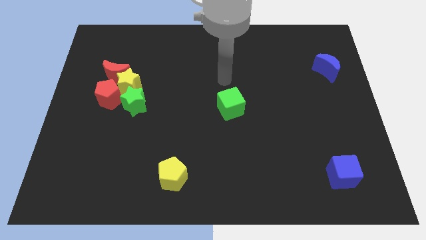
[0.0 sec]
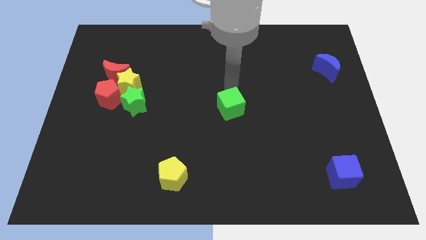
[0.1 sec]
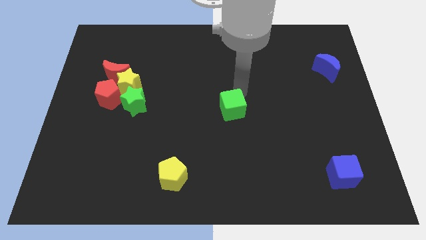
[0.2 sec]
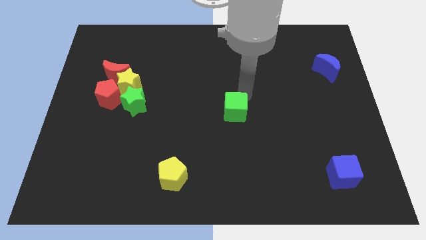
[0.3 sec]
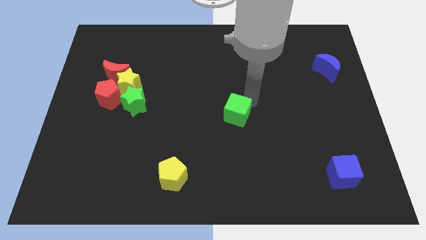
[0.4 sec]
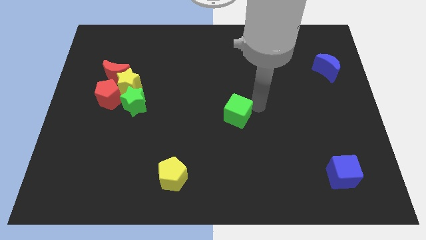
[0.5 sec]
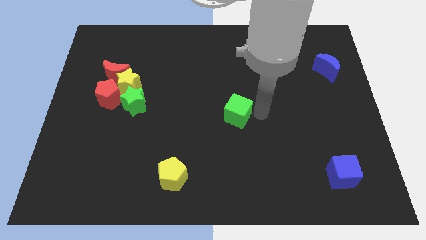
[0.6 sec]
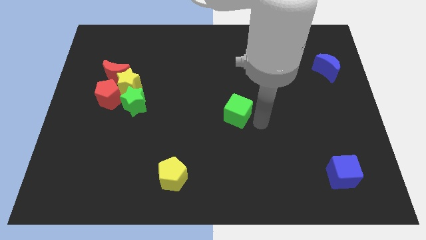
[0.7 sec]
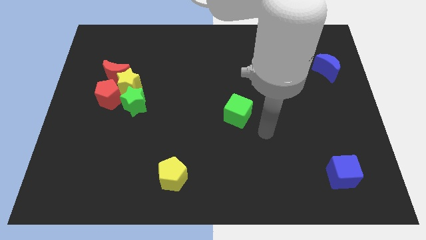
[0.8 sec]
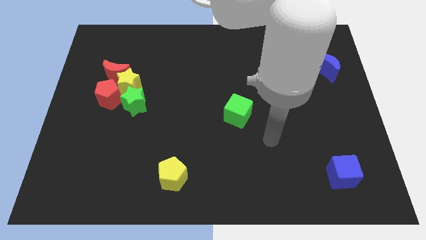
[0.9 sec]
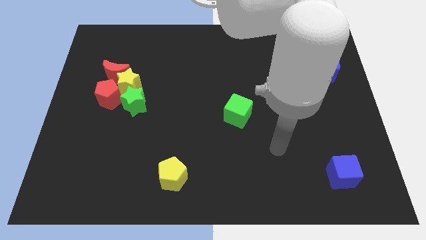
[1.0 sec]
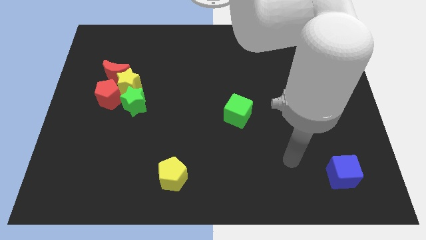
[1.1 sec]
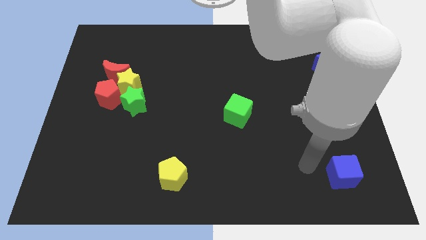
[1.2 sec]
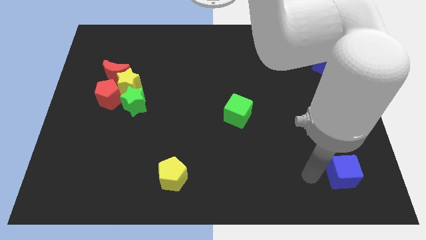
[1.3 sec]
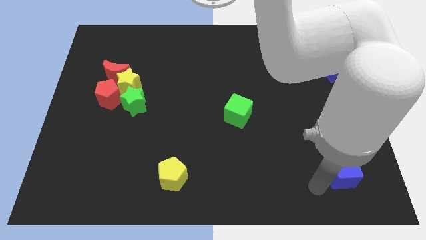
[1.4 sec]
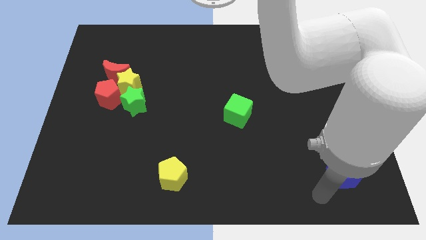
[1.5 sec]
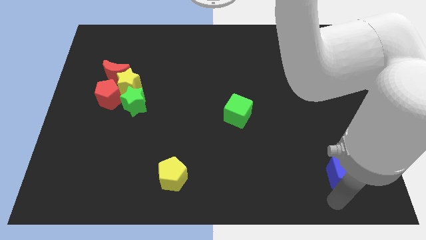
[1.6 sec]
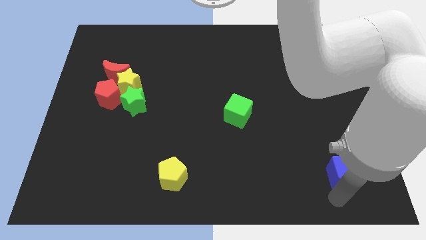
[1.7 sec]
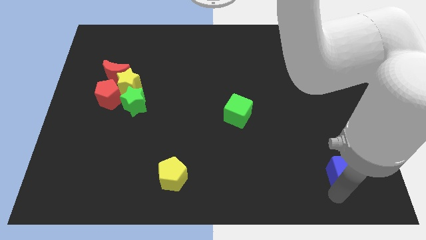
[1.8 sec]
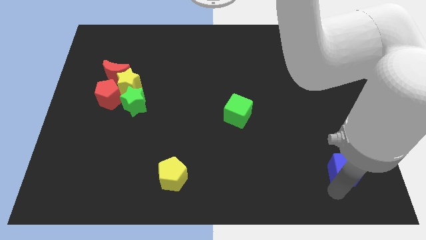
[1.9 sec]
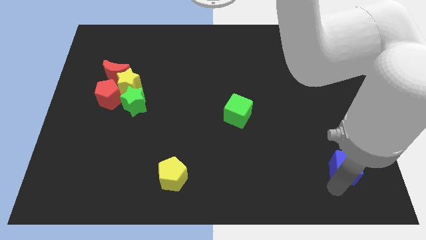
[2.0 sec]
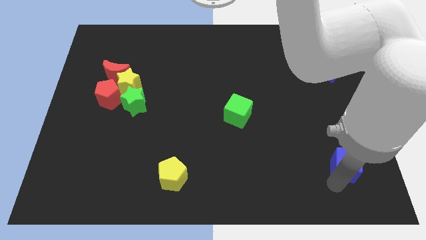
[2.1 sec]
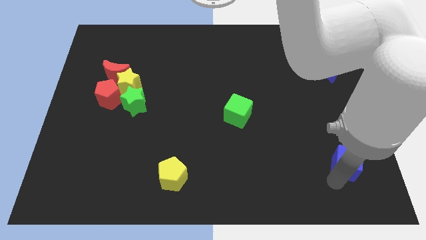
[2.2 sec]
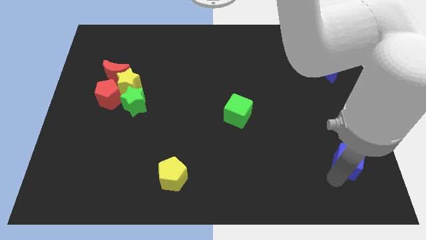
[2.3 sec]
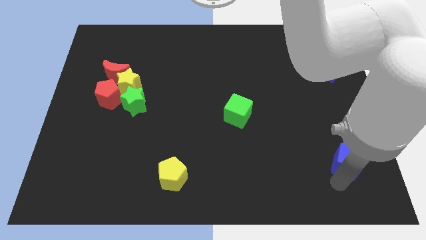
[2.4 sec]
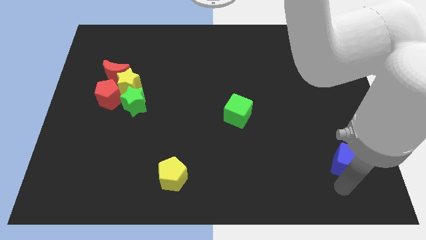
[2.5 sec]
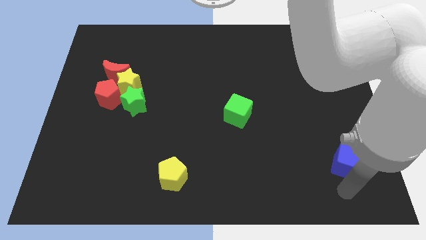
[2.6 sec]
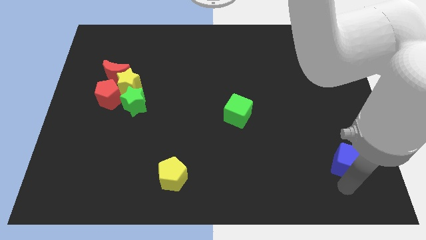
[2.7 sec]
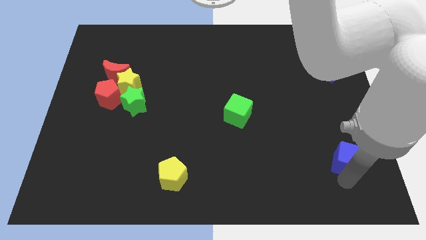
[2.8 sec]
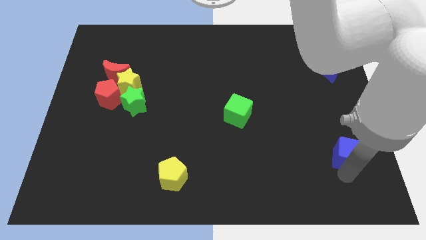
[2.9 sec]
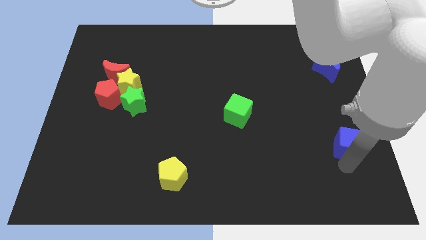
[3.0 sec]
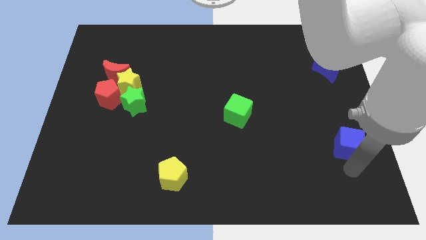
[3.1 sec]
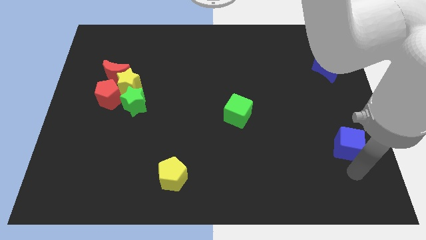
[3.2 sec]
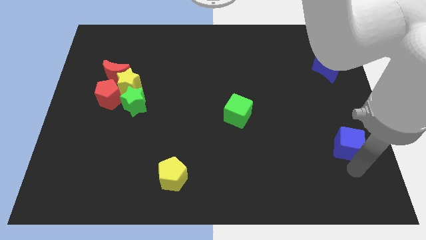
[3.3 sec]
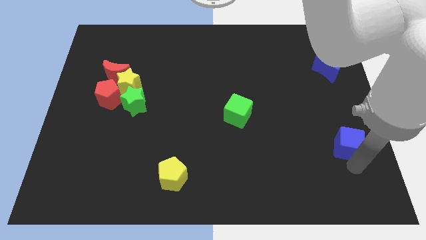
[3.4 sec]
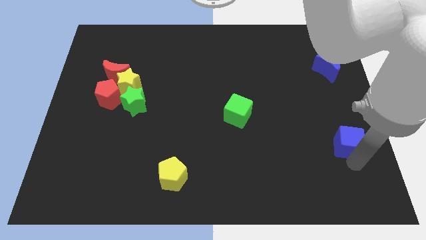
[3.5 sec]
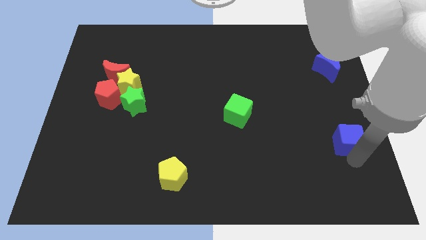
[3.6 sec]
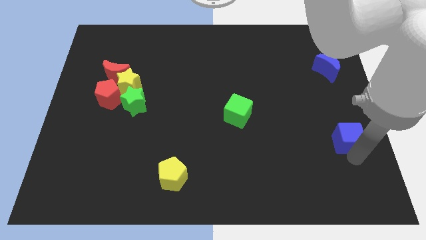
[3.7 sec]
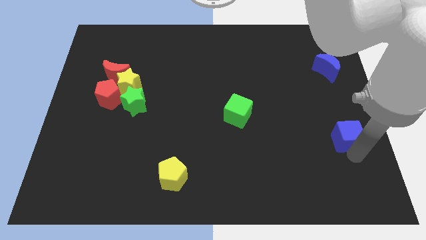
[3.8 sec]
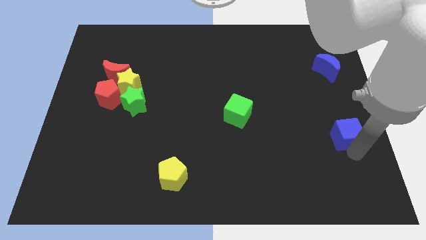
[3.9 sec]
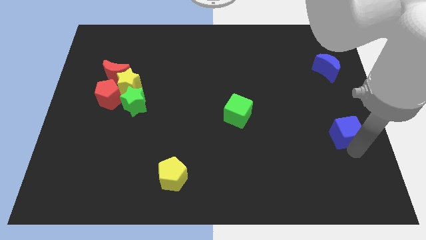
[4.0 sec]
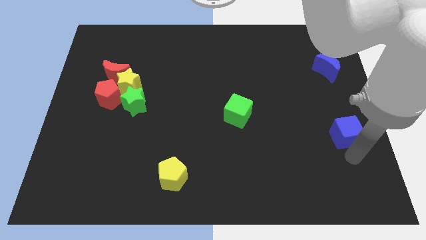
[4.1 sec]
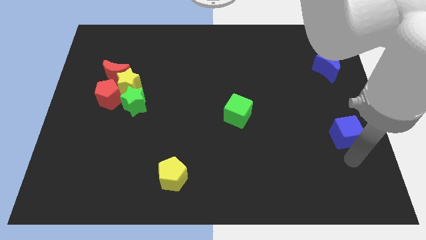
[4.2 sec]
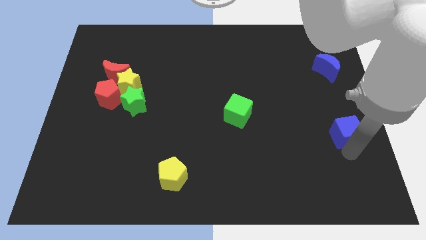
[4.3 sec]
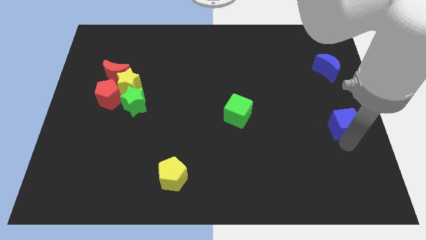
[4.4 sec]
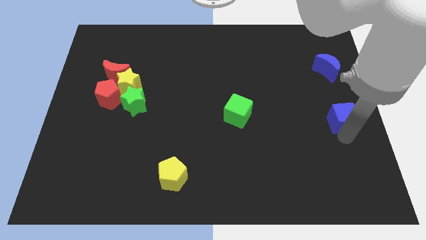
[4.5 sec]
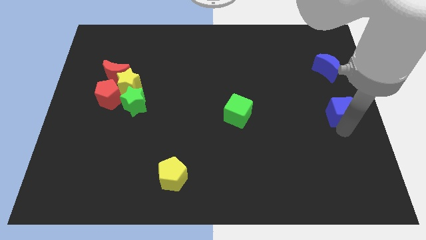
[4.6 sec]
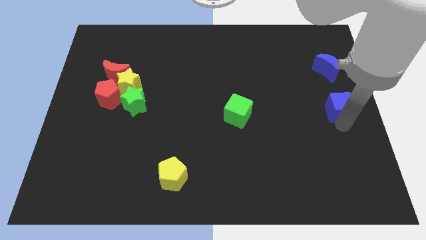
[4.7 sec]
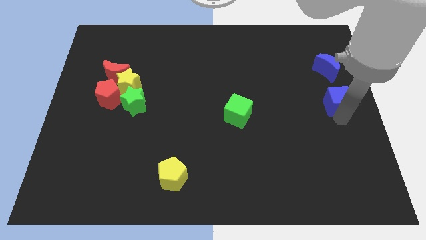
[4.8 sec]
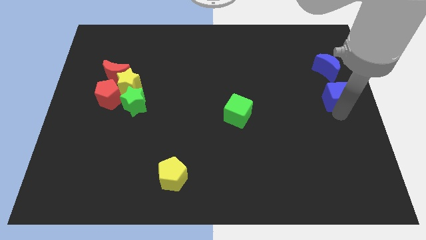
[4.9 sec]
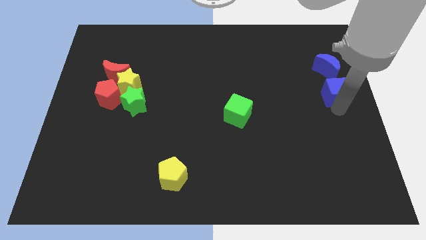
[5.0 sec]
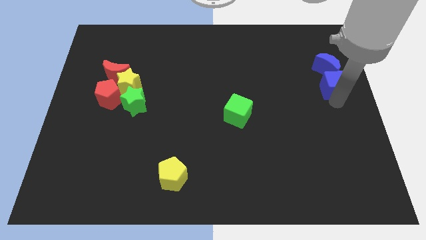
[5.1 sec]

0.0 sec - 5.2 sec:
move the blue cube close to the blue moon

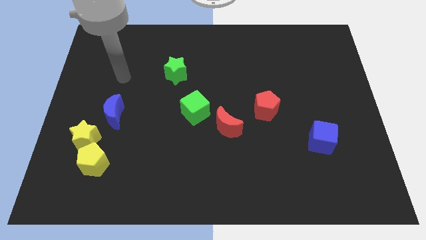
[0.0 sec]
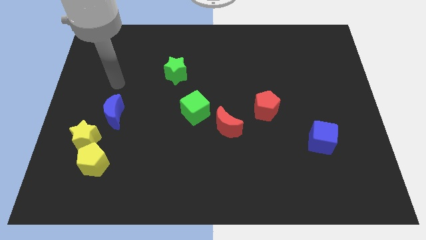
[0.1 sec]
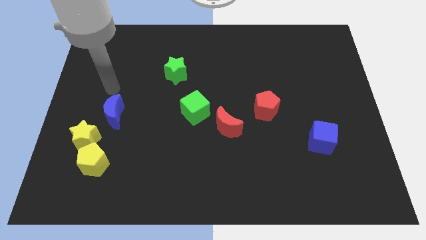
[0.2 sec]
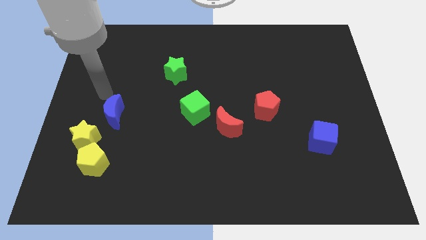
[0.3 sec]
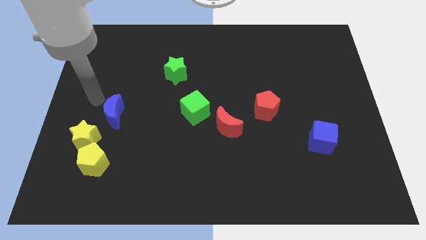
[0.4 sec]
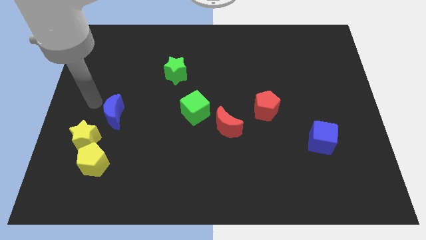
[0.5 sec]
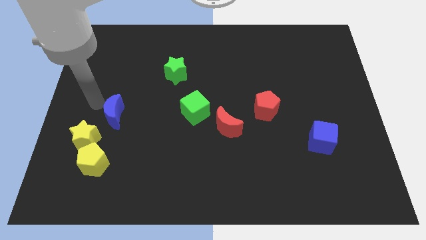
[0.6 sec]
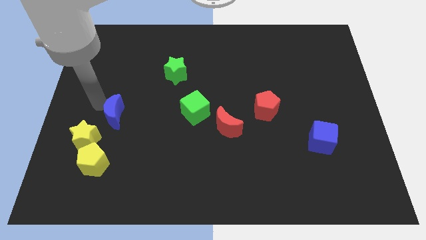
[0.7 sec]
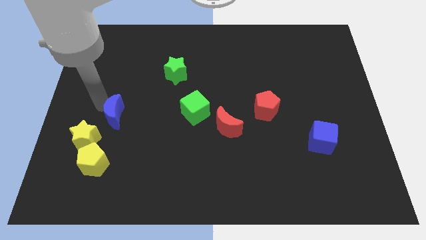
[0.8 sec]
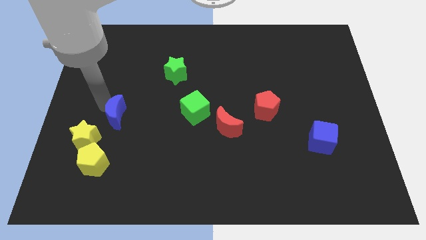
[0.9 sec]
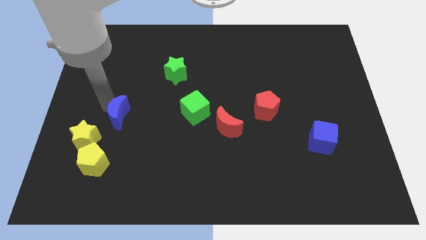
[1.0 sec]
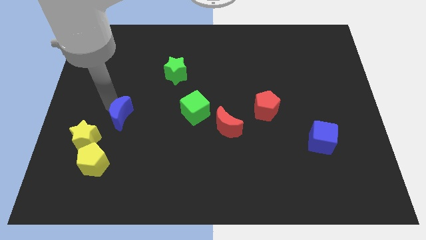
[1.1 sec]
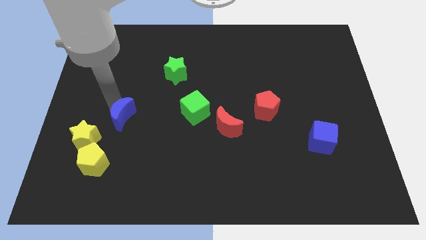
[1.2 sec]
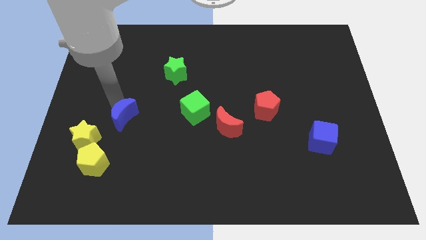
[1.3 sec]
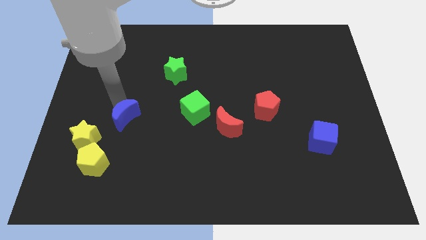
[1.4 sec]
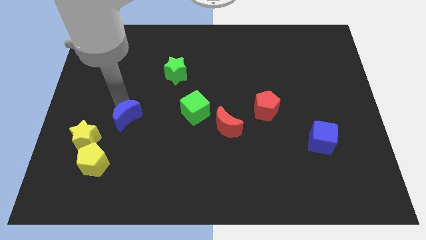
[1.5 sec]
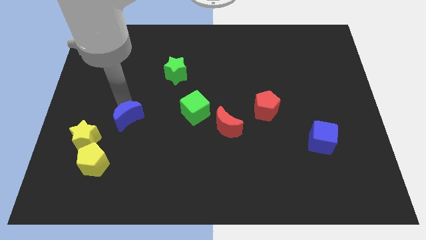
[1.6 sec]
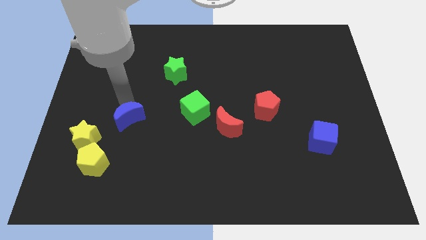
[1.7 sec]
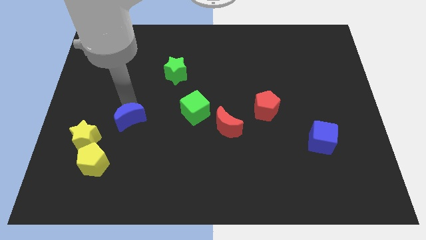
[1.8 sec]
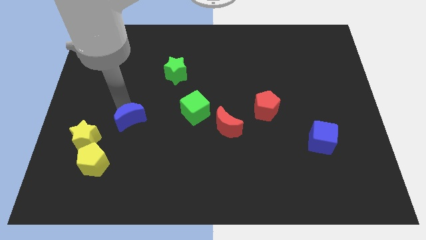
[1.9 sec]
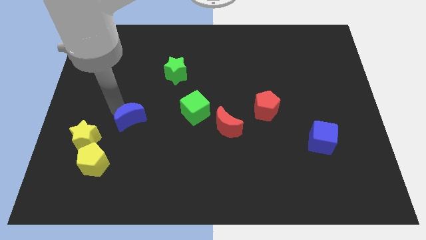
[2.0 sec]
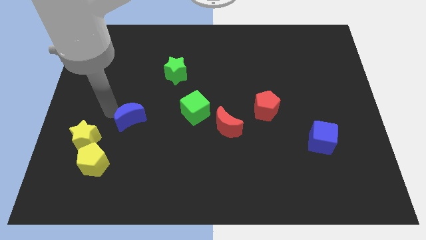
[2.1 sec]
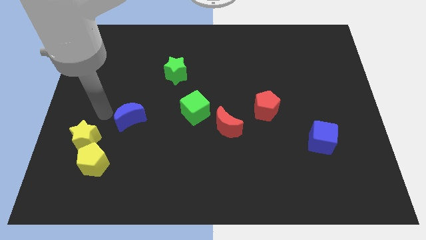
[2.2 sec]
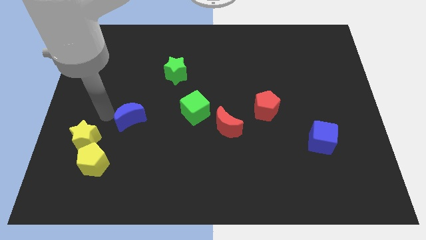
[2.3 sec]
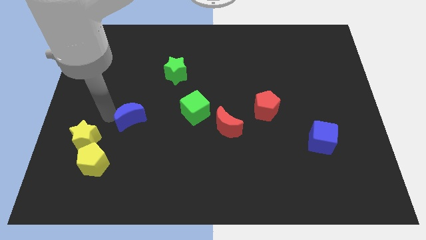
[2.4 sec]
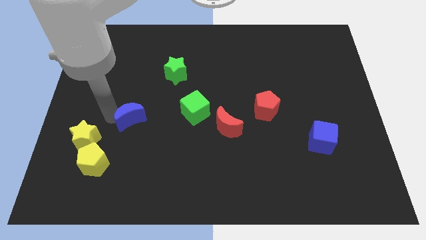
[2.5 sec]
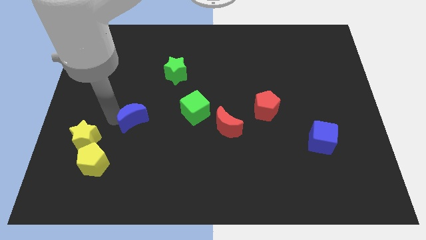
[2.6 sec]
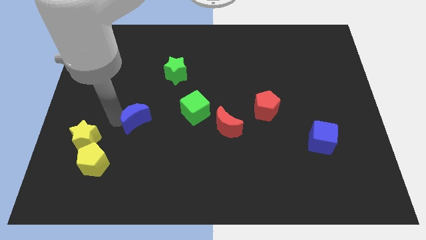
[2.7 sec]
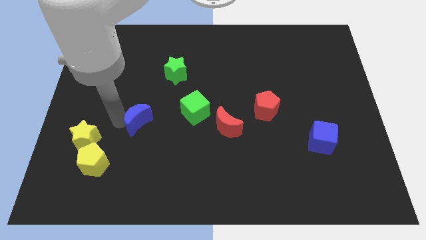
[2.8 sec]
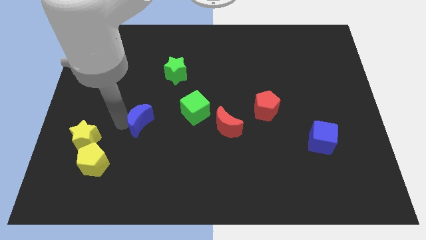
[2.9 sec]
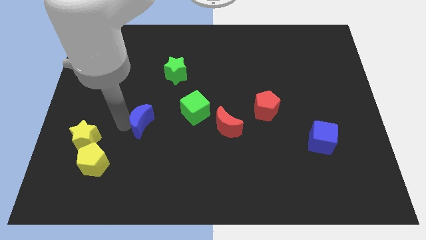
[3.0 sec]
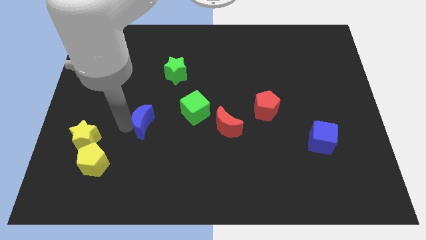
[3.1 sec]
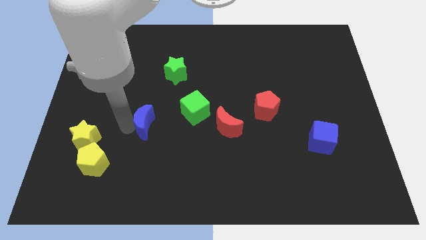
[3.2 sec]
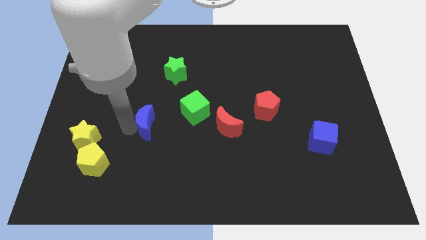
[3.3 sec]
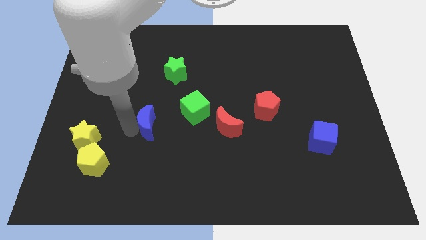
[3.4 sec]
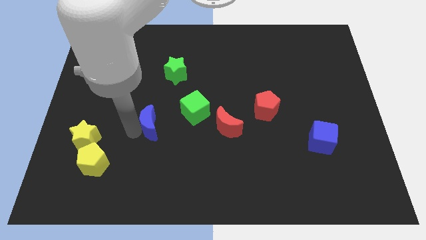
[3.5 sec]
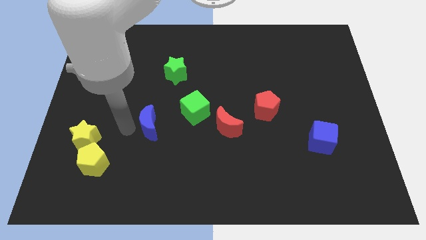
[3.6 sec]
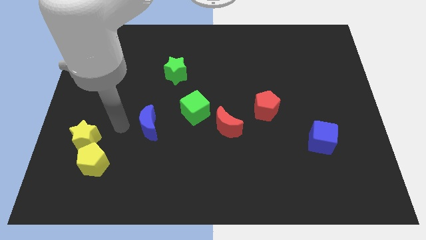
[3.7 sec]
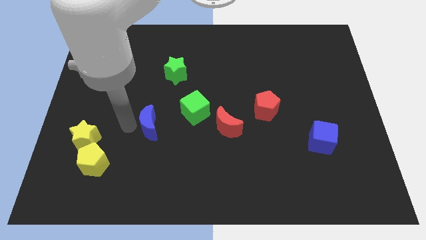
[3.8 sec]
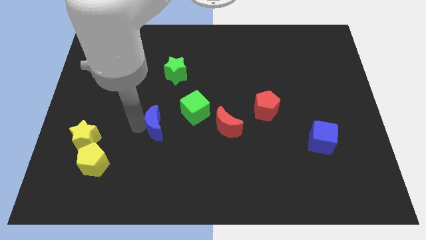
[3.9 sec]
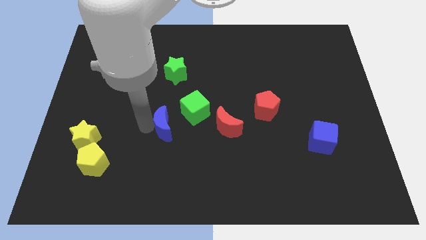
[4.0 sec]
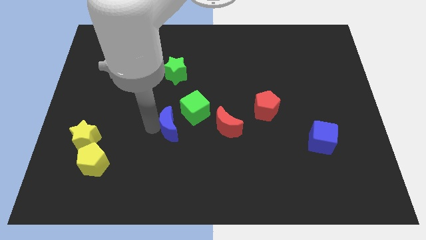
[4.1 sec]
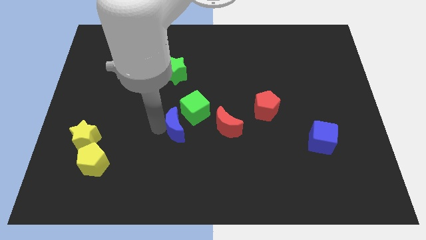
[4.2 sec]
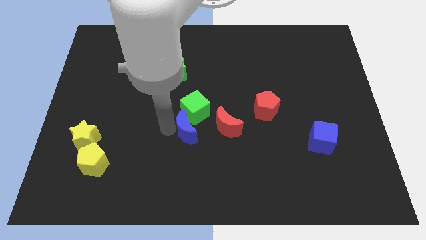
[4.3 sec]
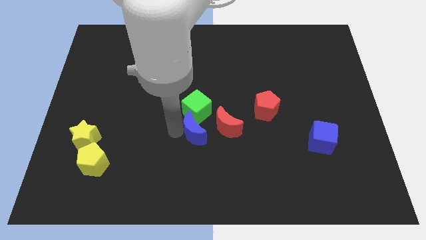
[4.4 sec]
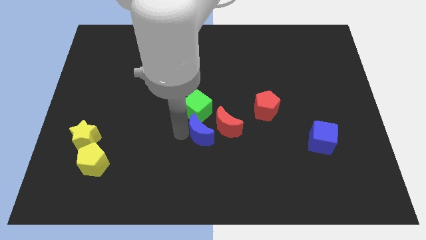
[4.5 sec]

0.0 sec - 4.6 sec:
slide the blue moon next to the red moon
